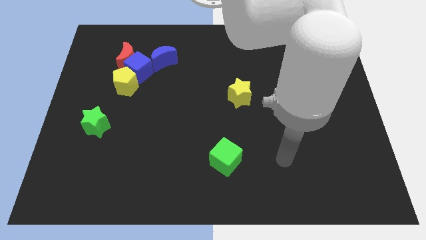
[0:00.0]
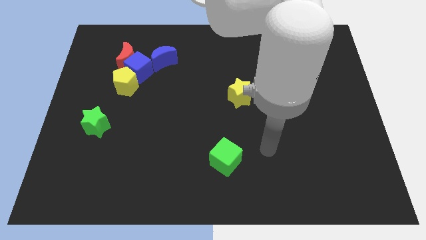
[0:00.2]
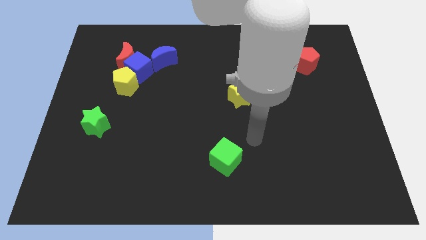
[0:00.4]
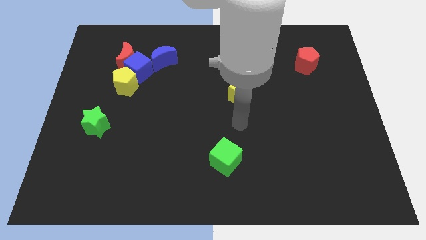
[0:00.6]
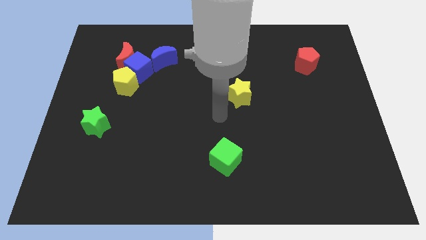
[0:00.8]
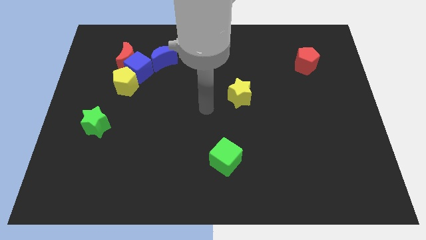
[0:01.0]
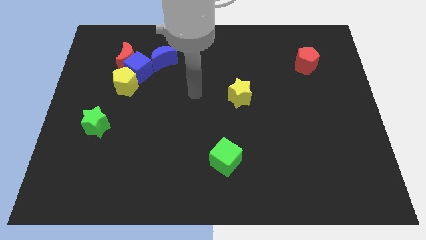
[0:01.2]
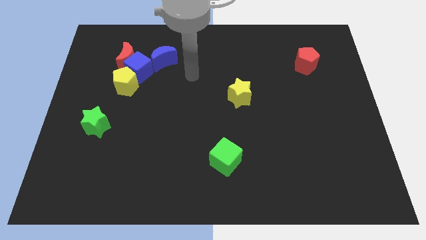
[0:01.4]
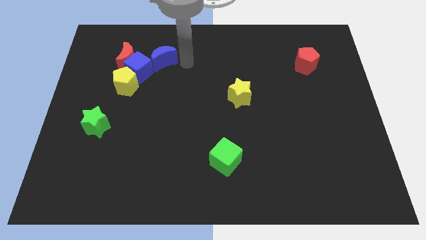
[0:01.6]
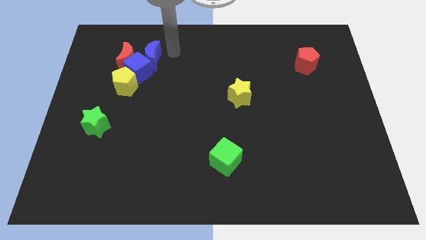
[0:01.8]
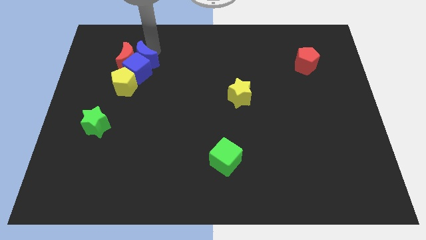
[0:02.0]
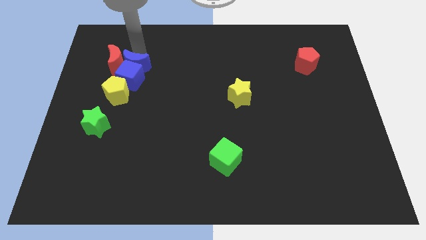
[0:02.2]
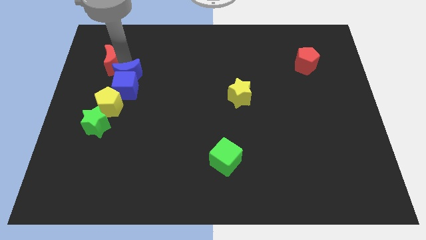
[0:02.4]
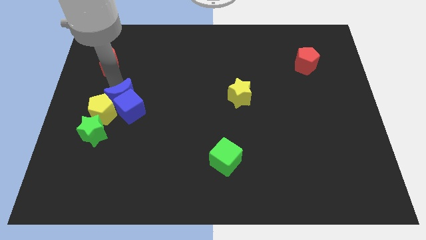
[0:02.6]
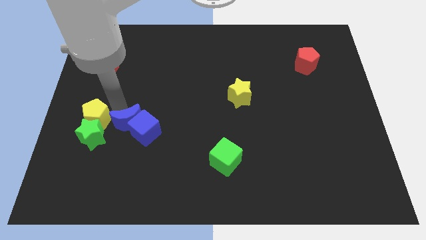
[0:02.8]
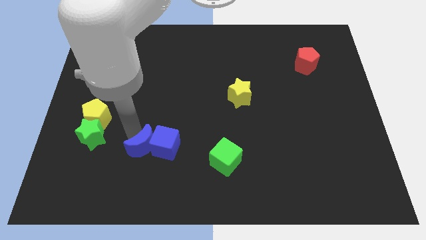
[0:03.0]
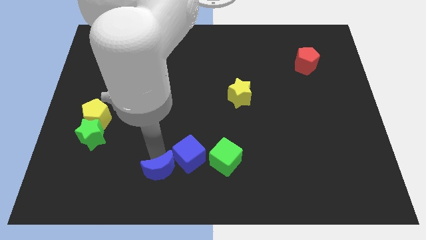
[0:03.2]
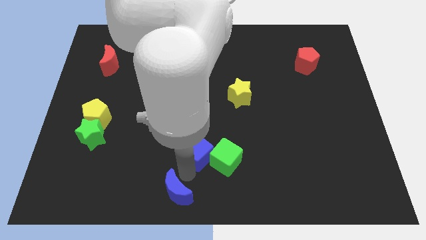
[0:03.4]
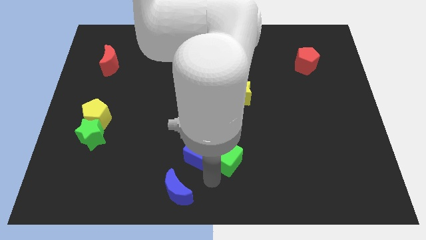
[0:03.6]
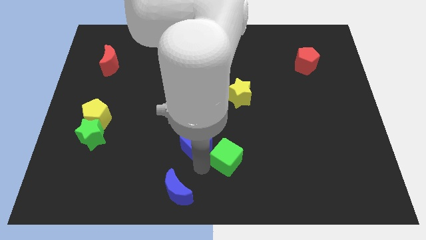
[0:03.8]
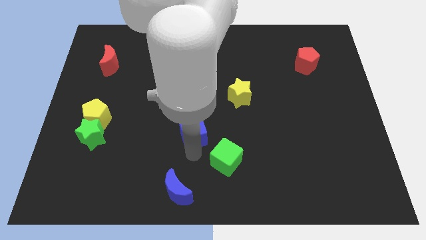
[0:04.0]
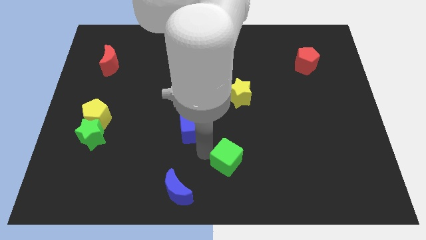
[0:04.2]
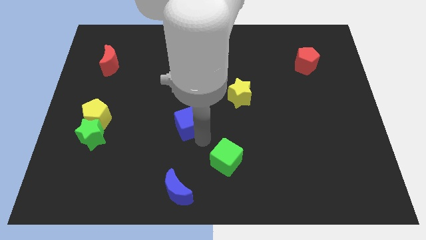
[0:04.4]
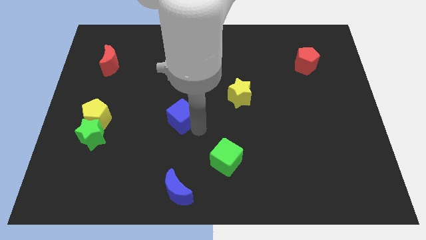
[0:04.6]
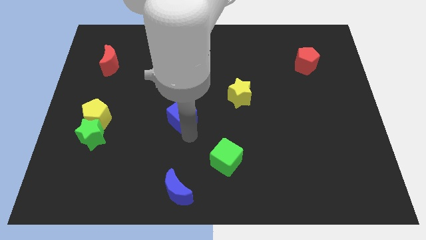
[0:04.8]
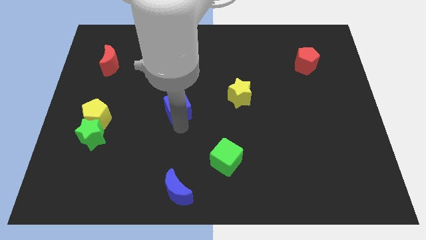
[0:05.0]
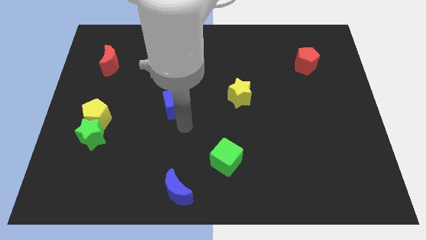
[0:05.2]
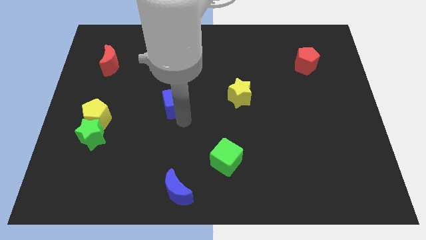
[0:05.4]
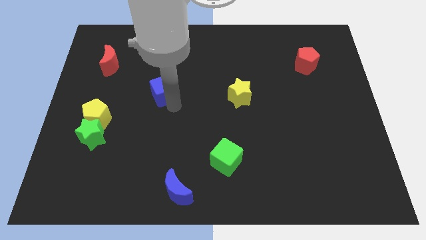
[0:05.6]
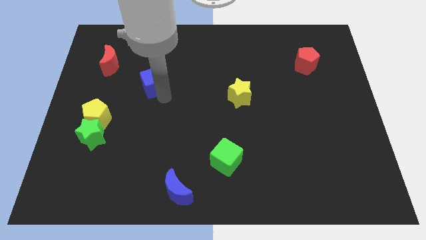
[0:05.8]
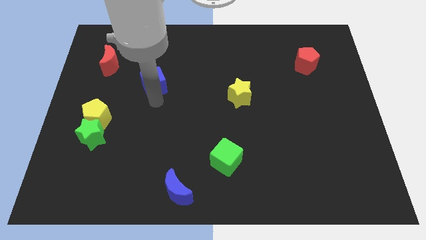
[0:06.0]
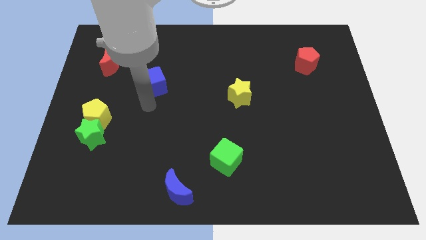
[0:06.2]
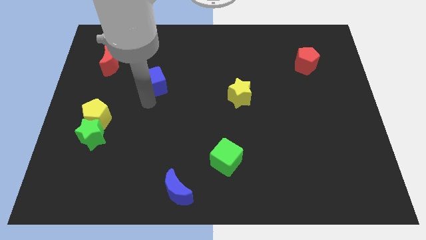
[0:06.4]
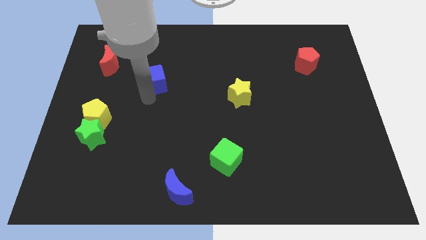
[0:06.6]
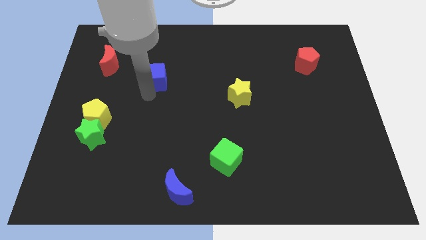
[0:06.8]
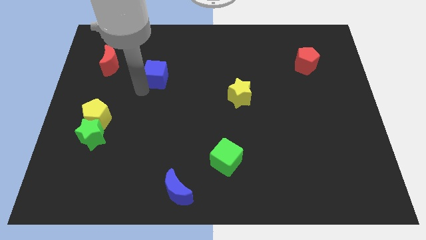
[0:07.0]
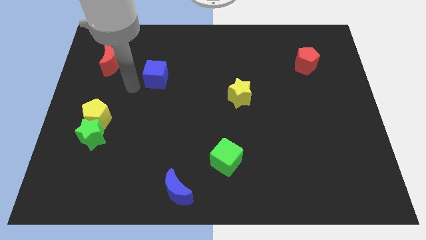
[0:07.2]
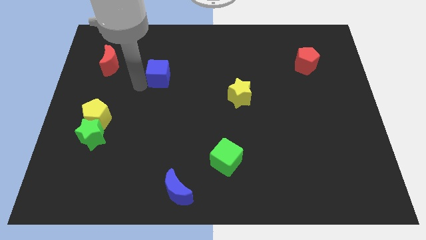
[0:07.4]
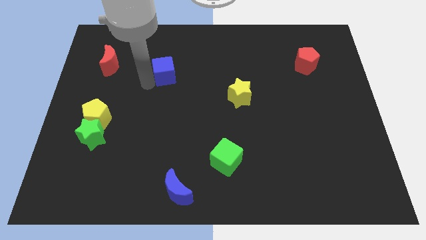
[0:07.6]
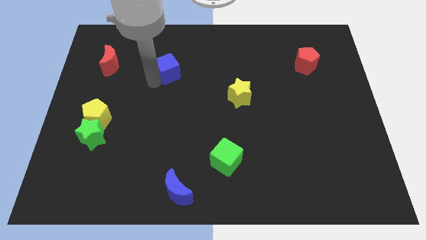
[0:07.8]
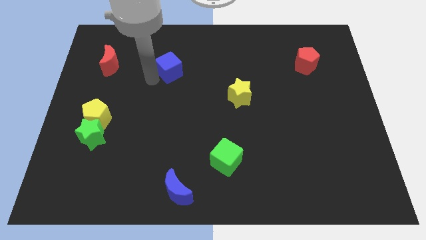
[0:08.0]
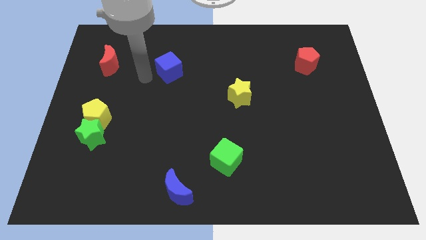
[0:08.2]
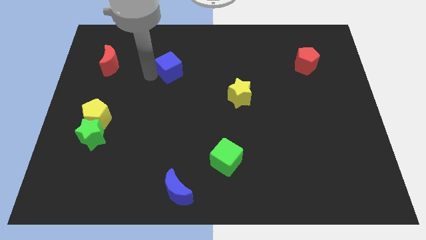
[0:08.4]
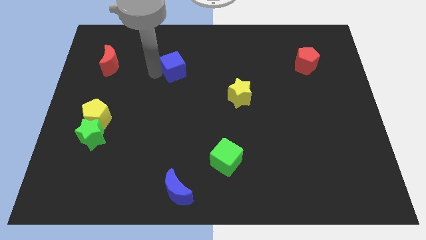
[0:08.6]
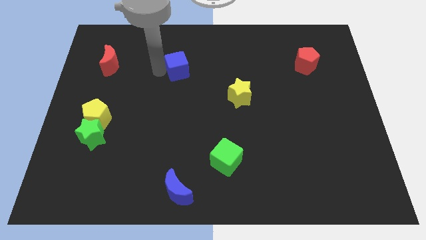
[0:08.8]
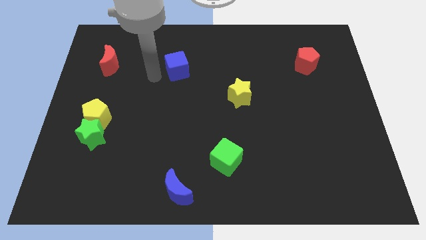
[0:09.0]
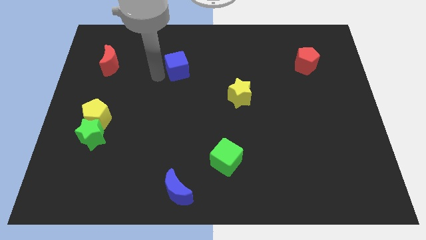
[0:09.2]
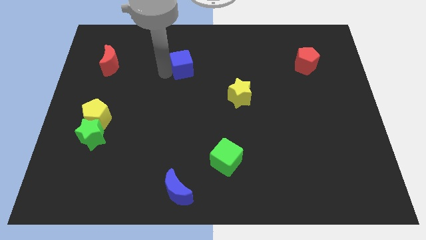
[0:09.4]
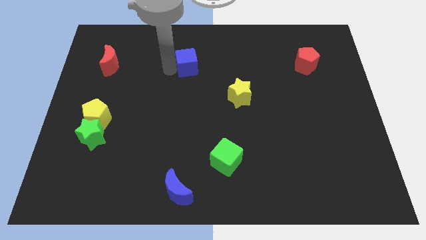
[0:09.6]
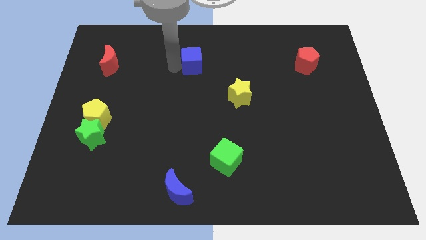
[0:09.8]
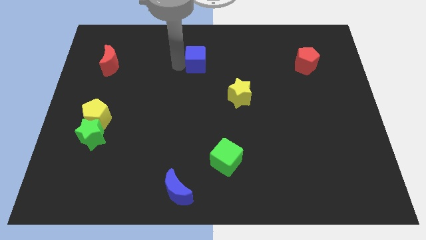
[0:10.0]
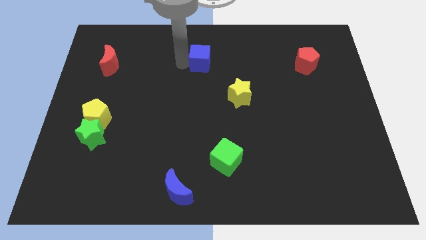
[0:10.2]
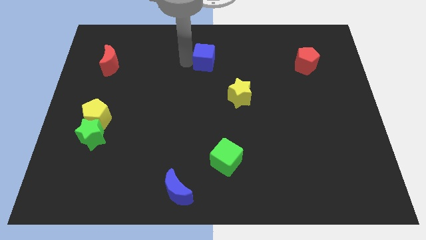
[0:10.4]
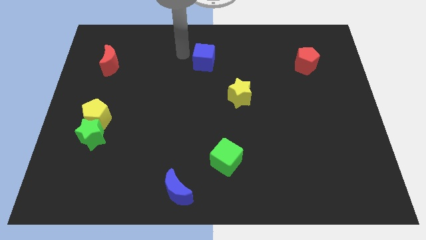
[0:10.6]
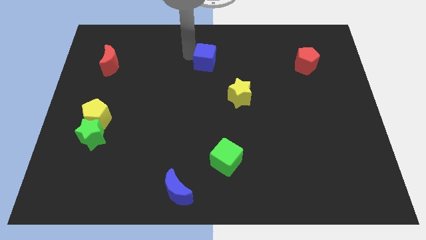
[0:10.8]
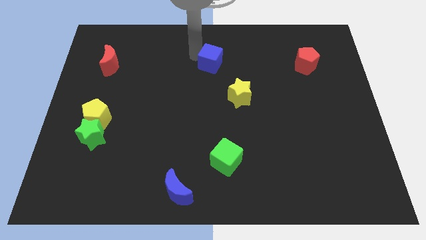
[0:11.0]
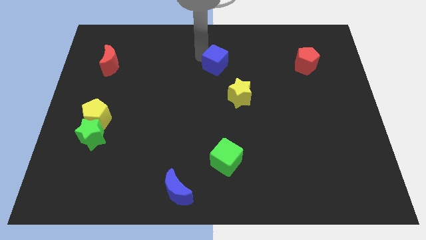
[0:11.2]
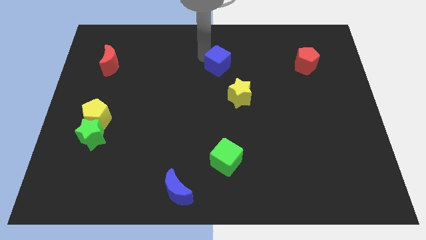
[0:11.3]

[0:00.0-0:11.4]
push the blue cube right

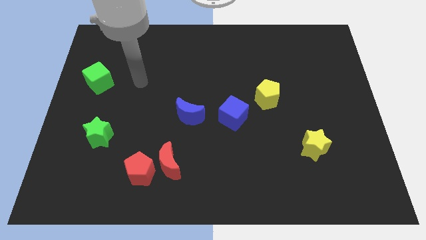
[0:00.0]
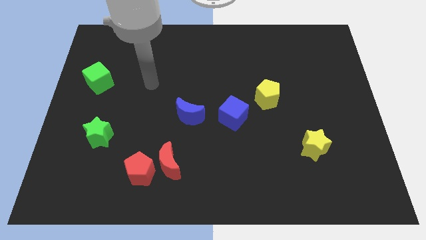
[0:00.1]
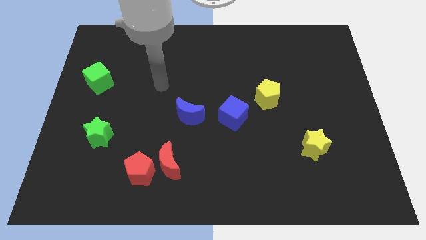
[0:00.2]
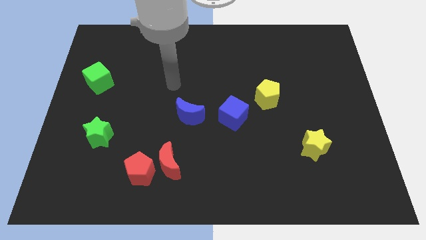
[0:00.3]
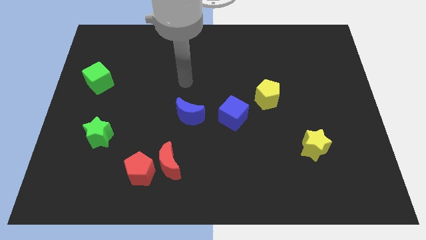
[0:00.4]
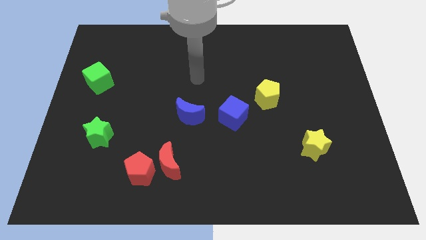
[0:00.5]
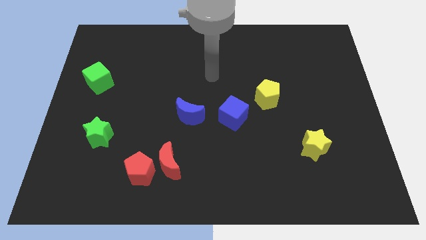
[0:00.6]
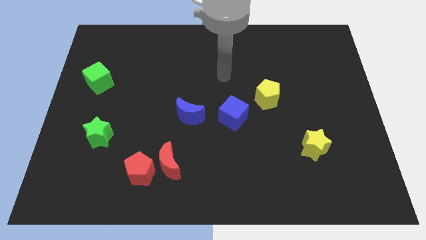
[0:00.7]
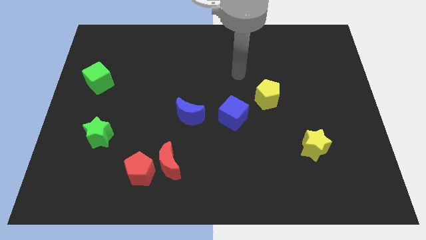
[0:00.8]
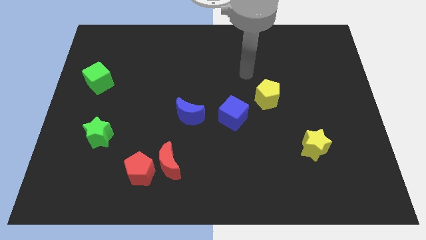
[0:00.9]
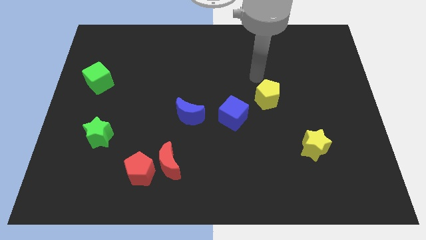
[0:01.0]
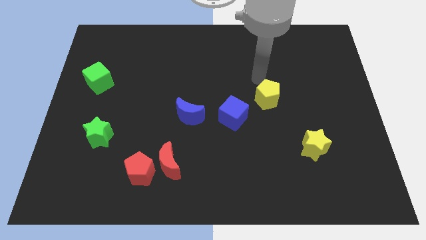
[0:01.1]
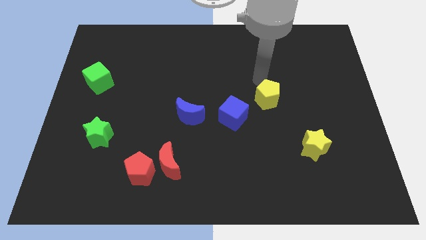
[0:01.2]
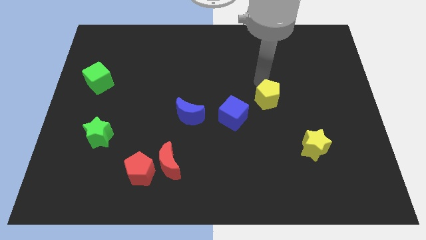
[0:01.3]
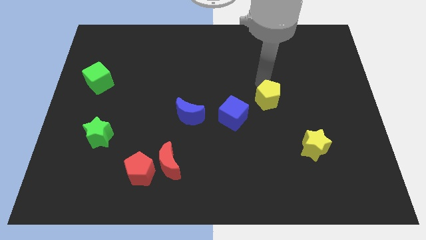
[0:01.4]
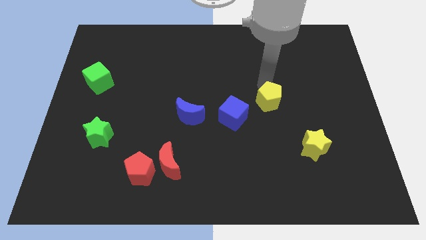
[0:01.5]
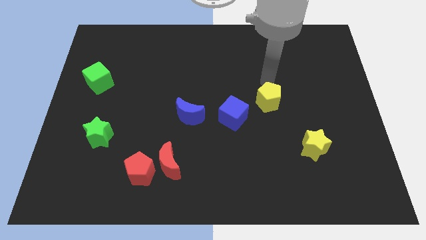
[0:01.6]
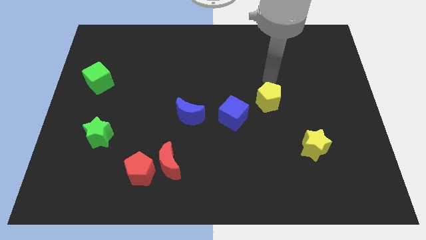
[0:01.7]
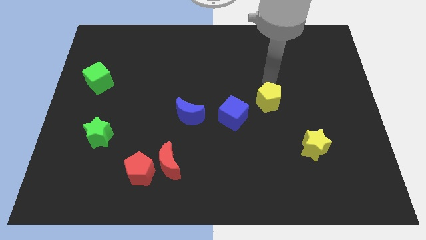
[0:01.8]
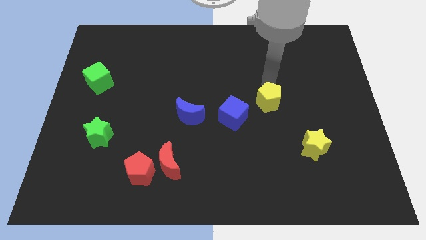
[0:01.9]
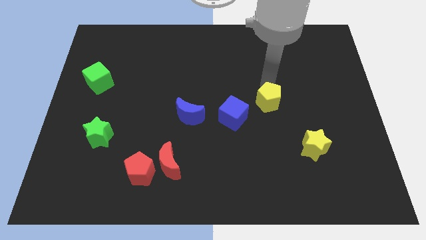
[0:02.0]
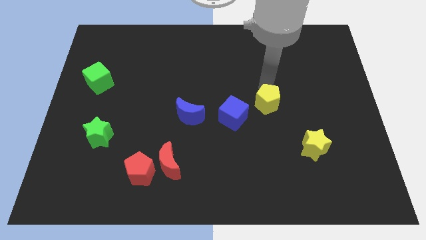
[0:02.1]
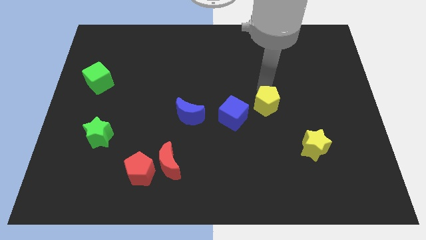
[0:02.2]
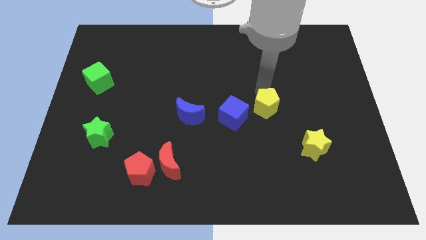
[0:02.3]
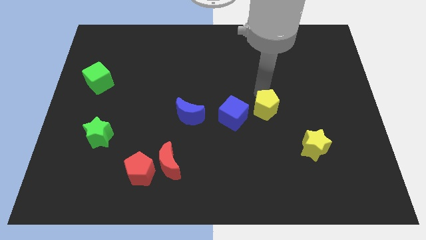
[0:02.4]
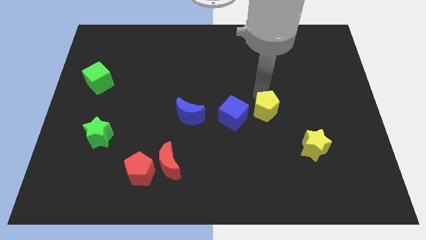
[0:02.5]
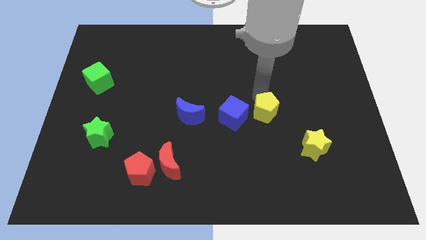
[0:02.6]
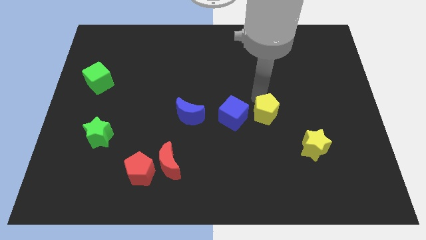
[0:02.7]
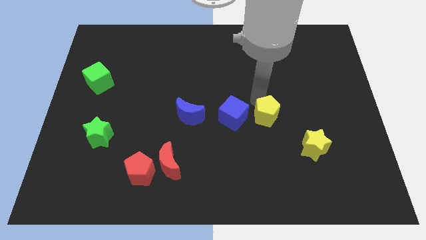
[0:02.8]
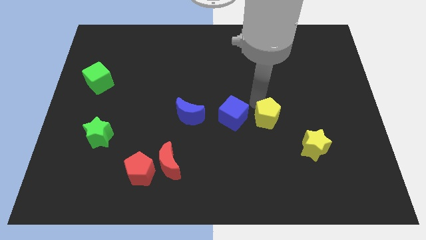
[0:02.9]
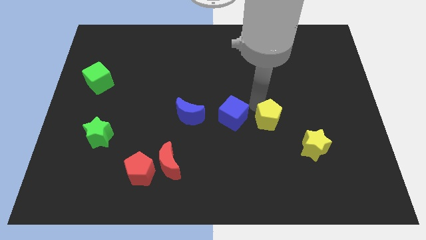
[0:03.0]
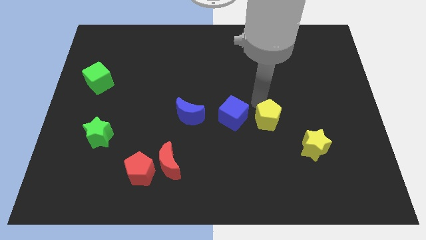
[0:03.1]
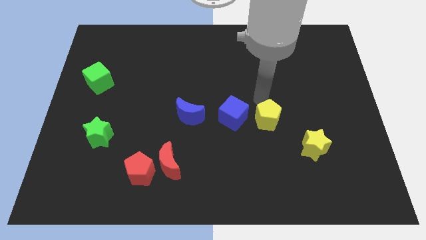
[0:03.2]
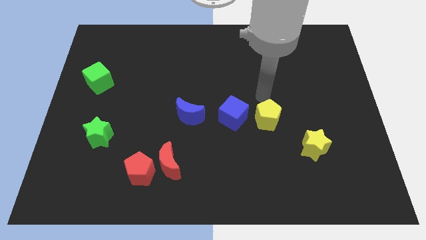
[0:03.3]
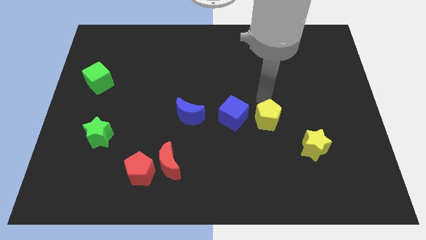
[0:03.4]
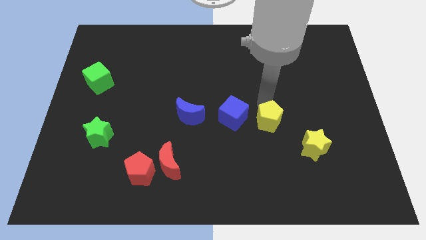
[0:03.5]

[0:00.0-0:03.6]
slightly move the yellow pentagon down
